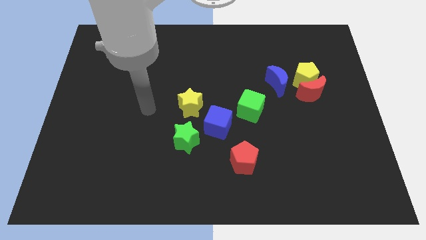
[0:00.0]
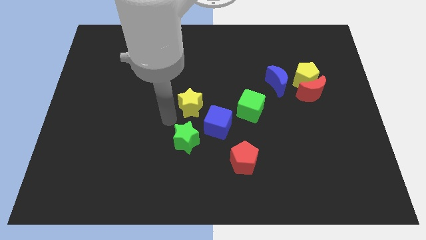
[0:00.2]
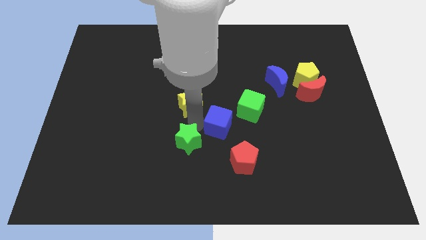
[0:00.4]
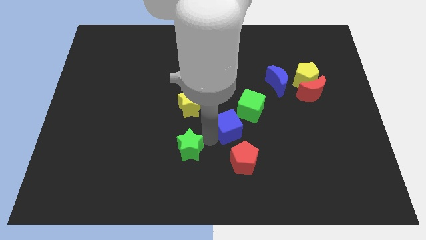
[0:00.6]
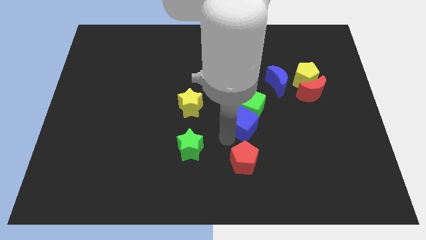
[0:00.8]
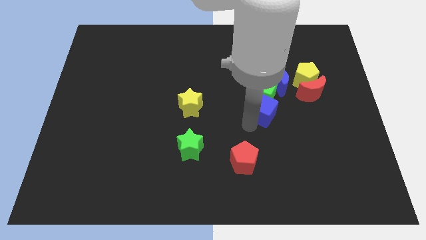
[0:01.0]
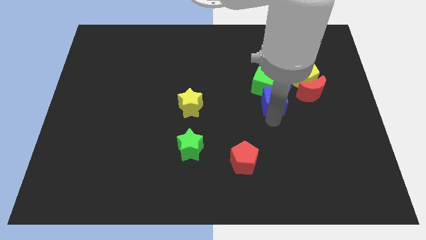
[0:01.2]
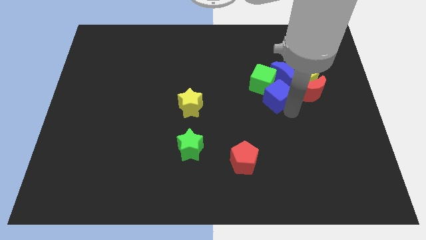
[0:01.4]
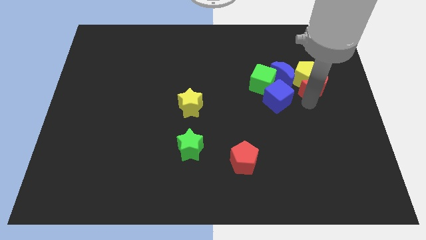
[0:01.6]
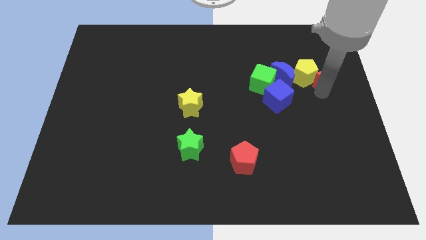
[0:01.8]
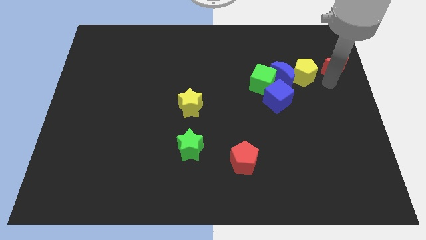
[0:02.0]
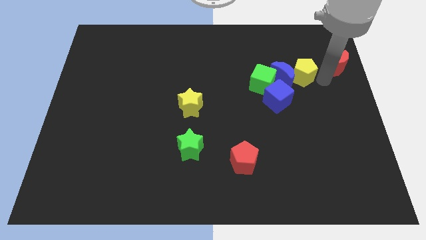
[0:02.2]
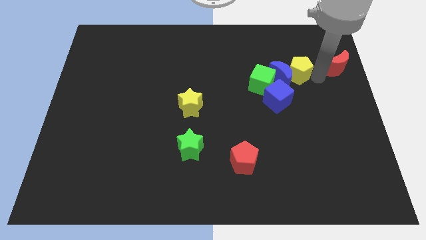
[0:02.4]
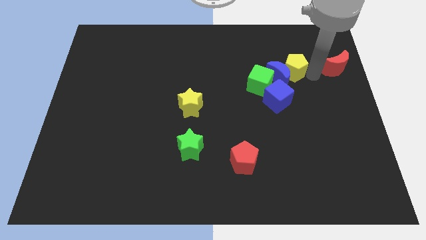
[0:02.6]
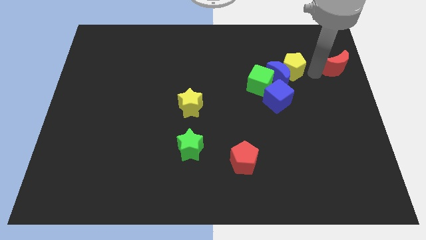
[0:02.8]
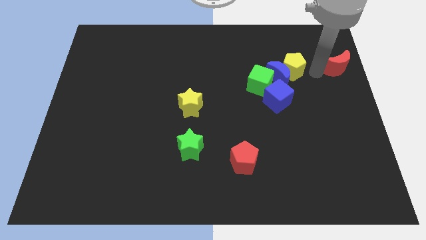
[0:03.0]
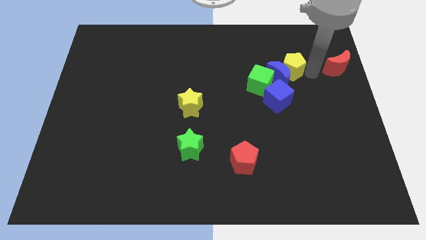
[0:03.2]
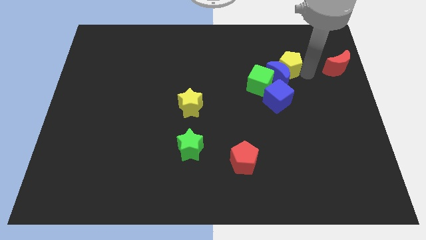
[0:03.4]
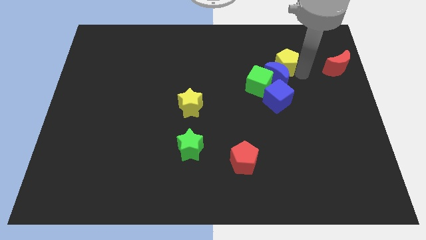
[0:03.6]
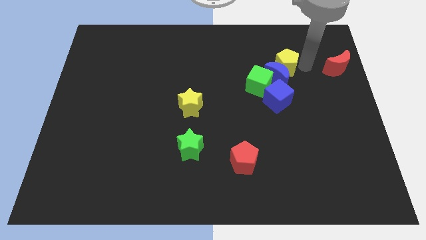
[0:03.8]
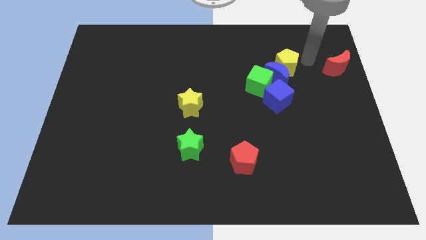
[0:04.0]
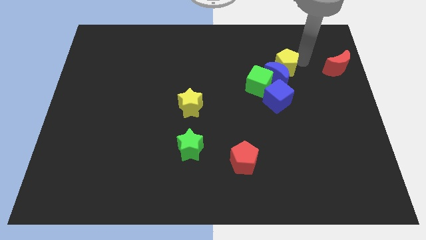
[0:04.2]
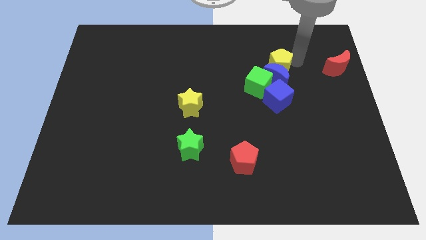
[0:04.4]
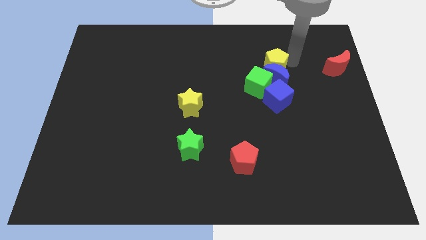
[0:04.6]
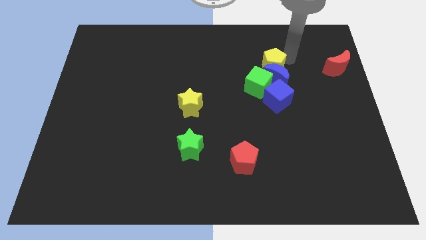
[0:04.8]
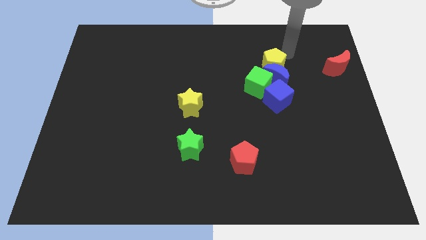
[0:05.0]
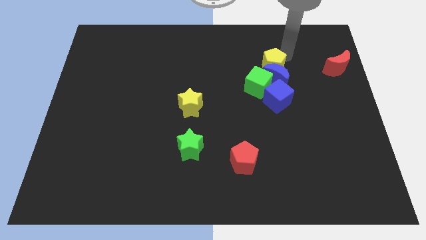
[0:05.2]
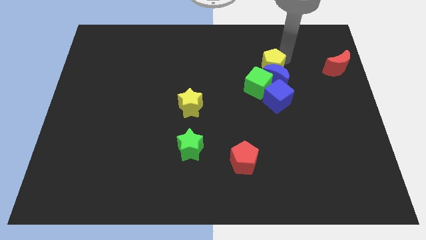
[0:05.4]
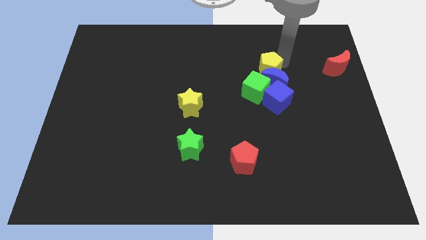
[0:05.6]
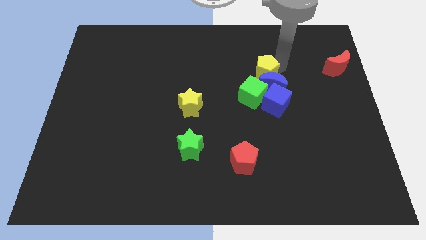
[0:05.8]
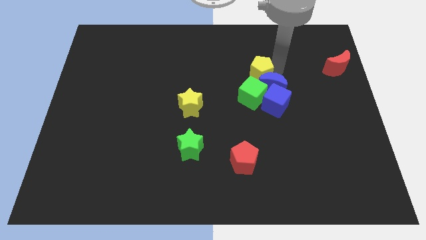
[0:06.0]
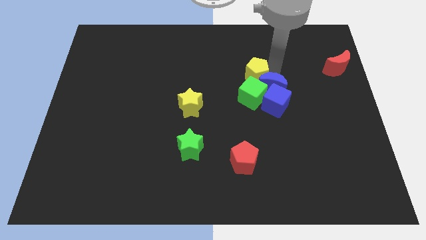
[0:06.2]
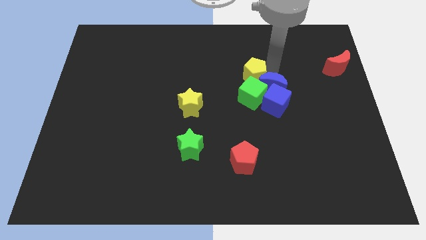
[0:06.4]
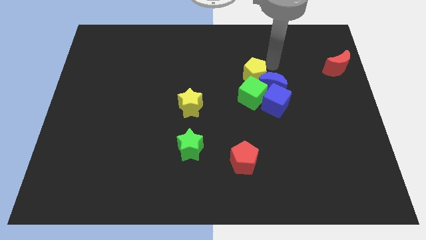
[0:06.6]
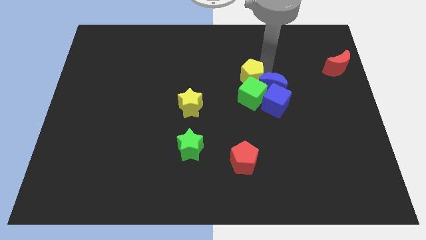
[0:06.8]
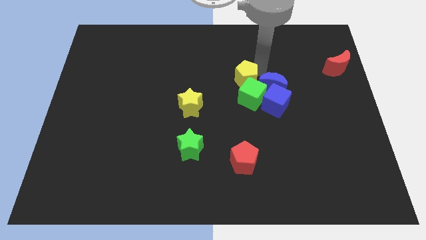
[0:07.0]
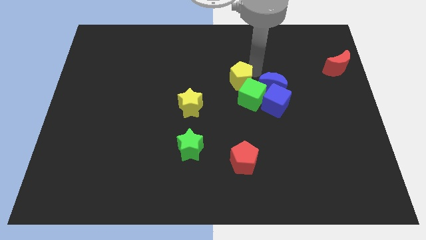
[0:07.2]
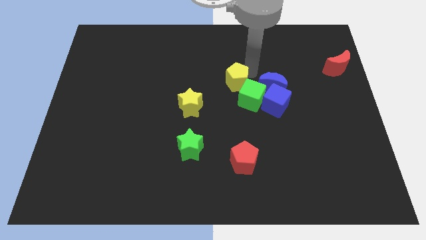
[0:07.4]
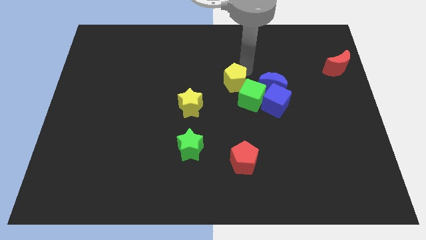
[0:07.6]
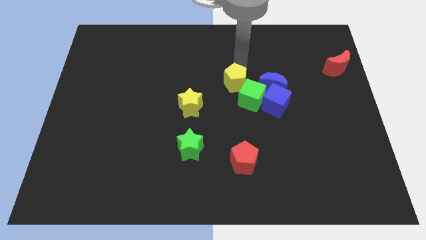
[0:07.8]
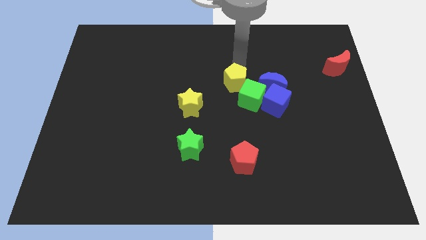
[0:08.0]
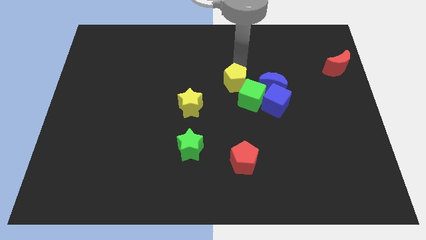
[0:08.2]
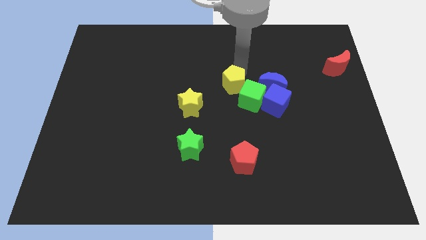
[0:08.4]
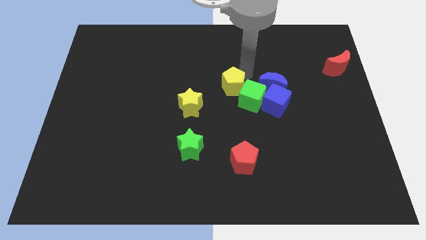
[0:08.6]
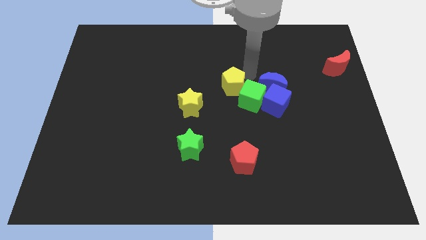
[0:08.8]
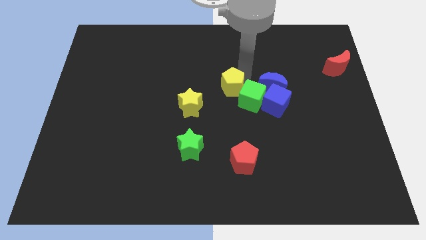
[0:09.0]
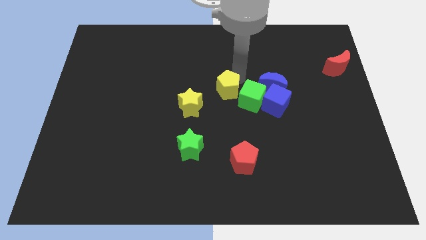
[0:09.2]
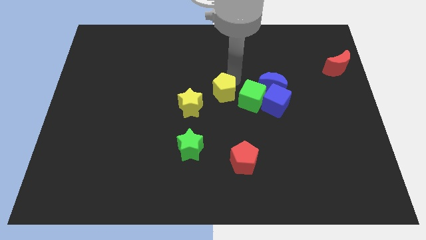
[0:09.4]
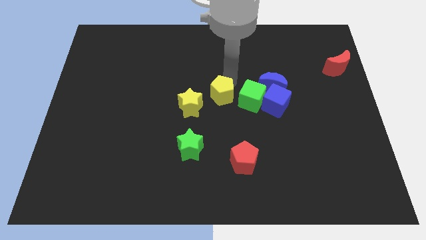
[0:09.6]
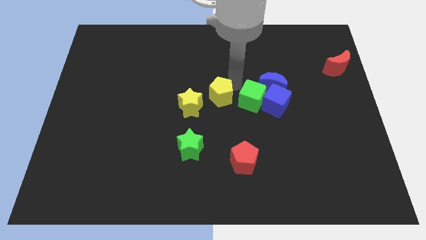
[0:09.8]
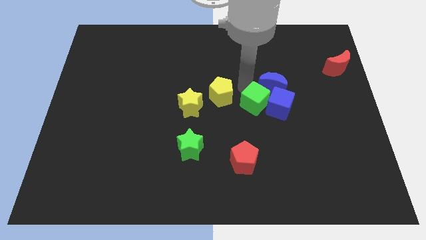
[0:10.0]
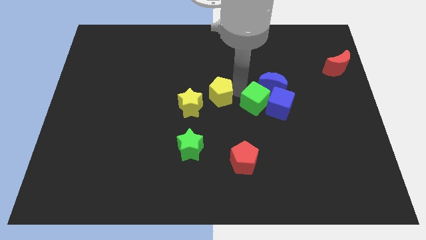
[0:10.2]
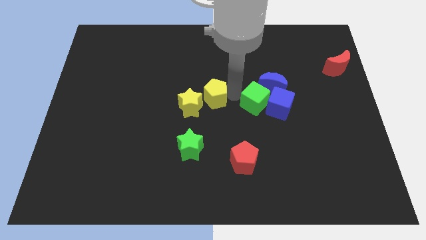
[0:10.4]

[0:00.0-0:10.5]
push the yellow pentagon to the yellow star

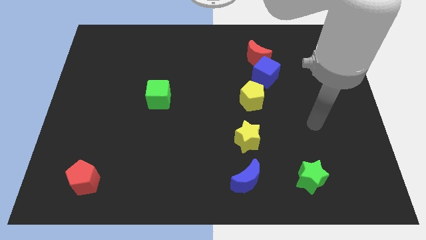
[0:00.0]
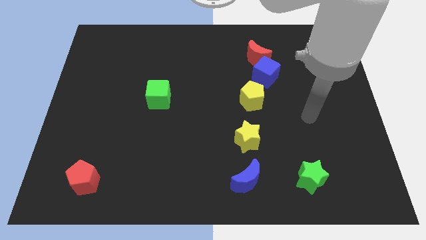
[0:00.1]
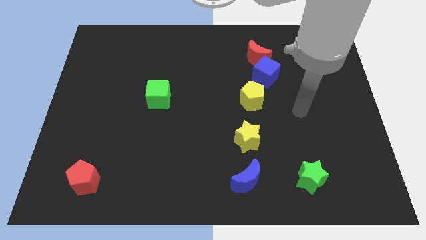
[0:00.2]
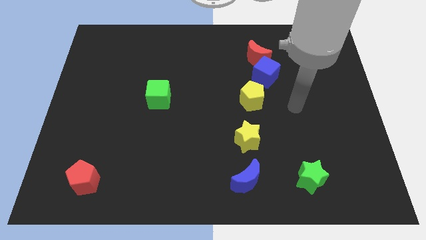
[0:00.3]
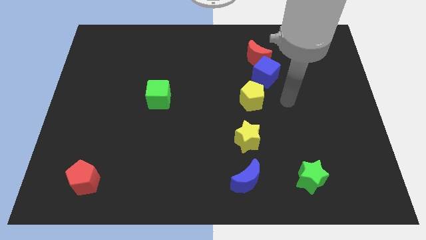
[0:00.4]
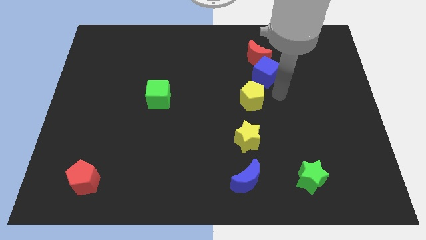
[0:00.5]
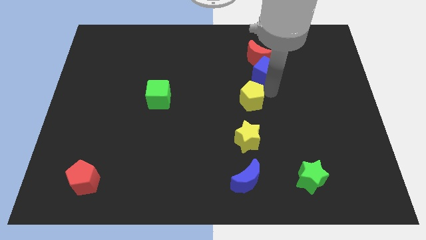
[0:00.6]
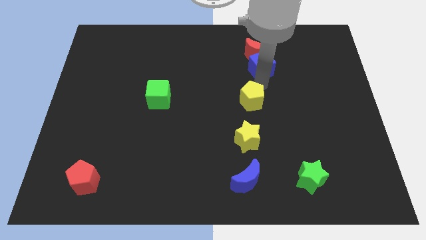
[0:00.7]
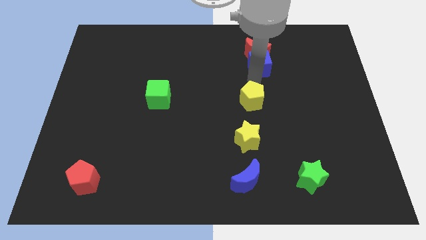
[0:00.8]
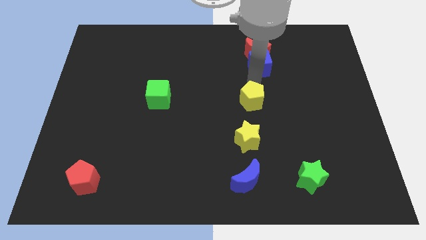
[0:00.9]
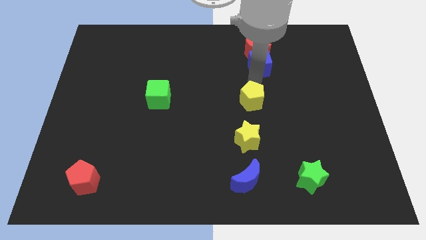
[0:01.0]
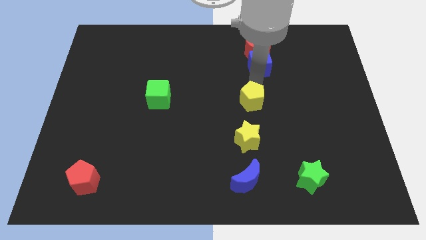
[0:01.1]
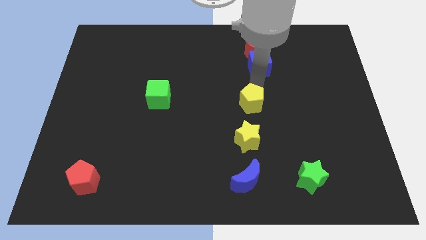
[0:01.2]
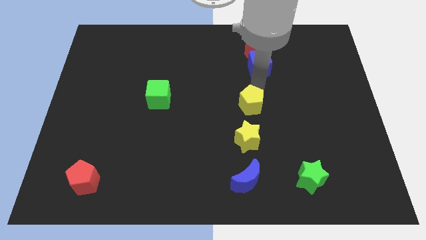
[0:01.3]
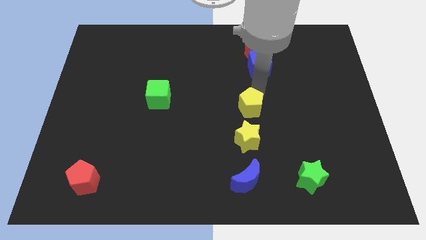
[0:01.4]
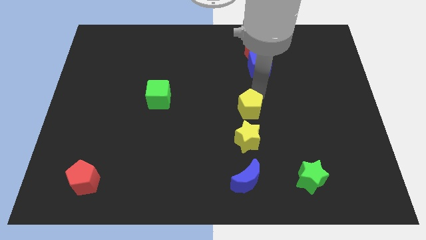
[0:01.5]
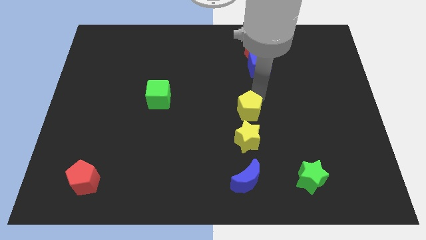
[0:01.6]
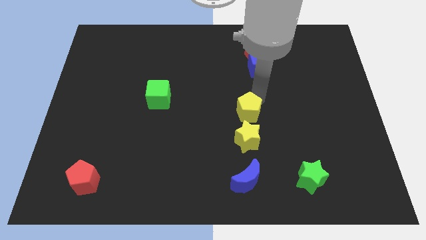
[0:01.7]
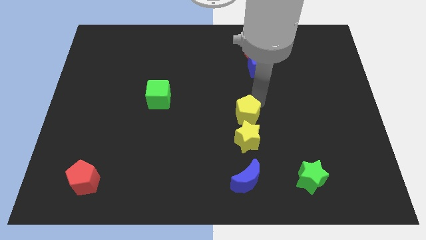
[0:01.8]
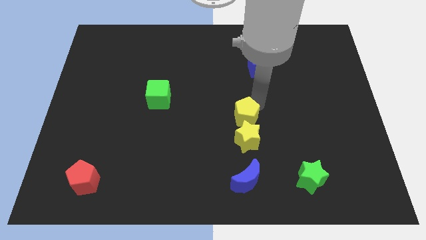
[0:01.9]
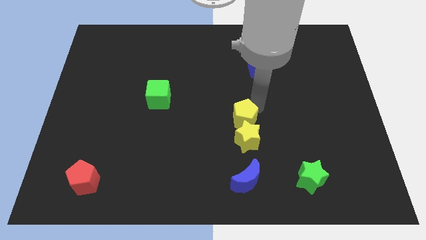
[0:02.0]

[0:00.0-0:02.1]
move the yellow pentagon next to the yellow star
